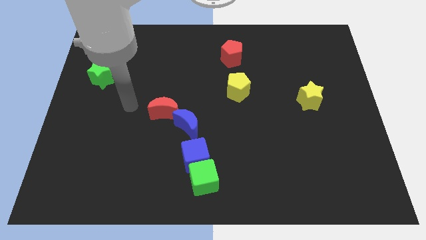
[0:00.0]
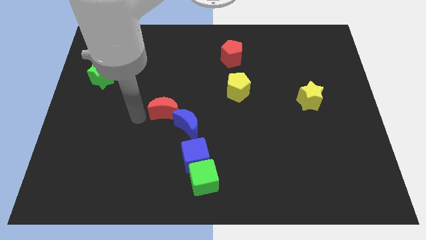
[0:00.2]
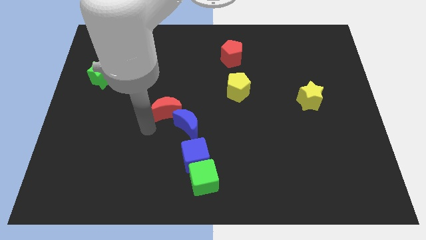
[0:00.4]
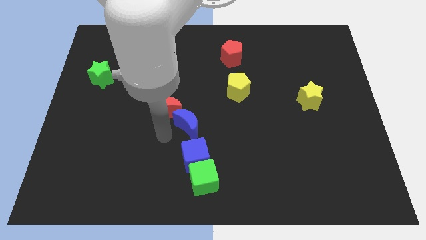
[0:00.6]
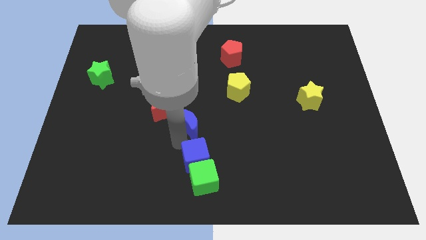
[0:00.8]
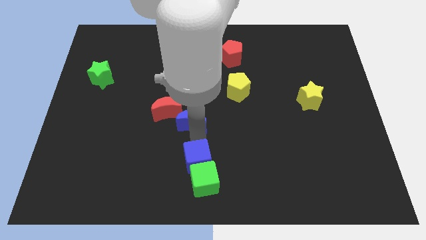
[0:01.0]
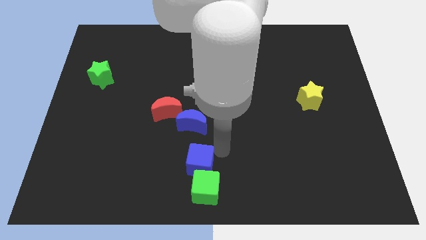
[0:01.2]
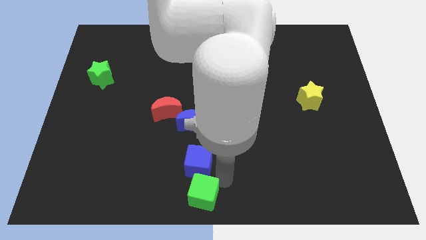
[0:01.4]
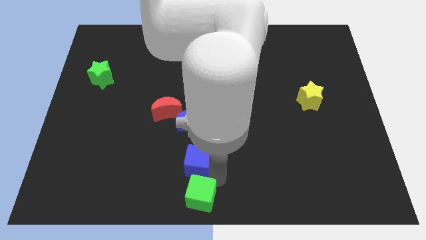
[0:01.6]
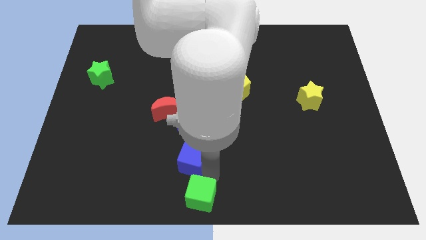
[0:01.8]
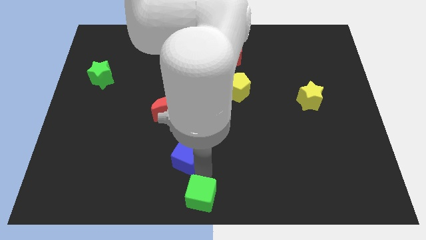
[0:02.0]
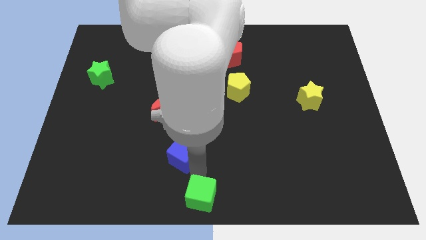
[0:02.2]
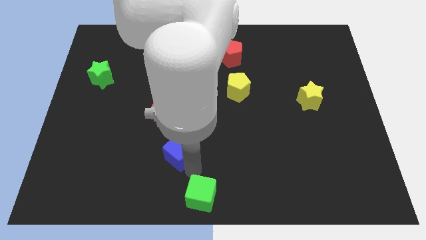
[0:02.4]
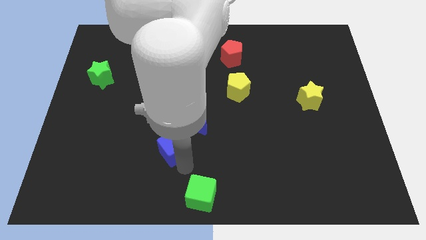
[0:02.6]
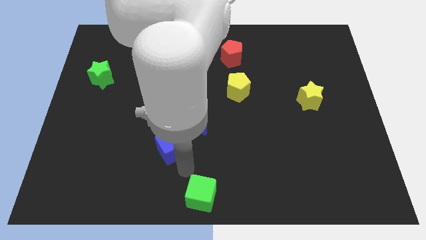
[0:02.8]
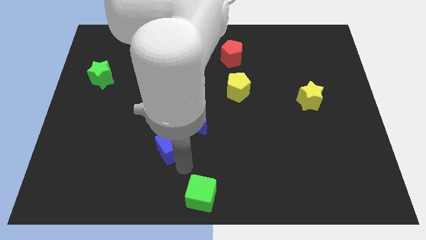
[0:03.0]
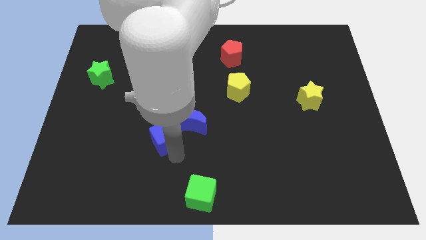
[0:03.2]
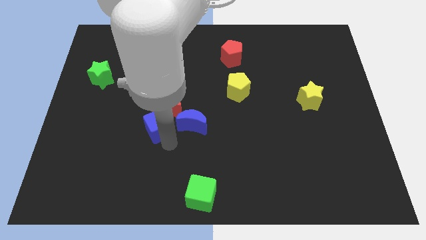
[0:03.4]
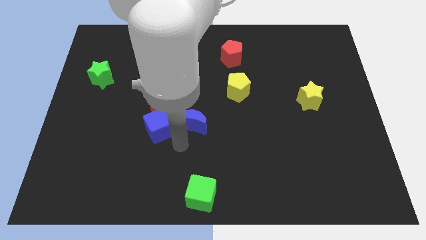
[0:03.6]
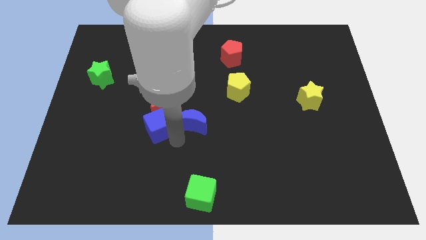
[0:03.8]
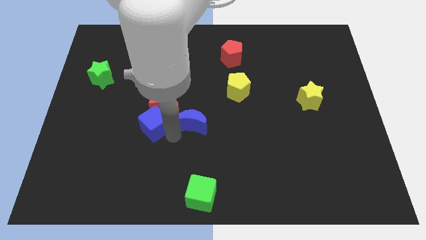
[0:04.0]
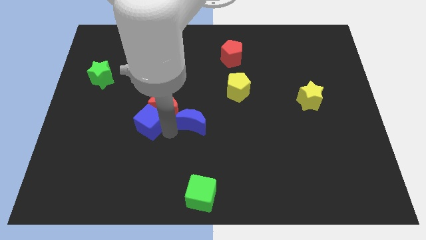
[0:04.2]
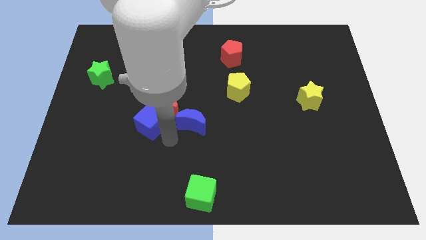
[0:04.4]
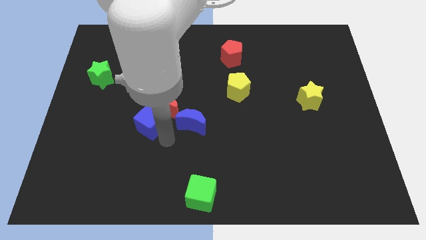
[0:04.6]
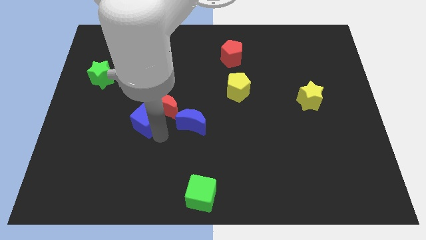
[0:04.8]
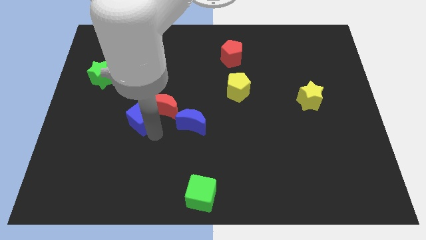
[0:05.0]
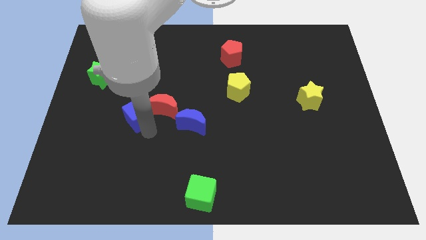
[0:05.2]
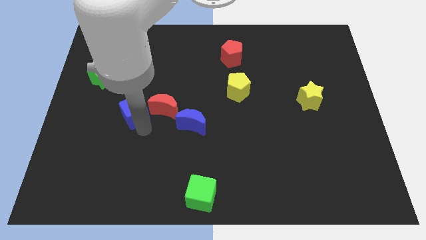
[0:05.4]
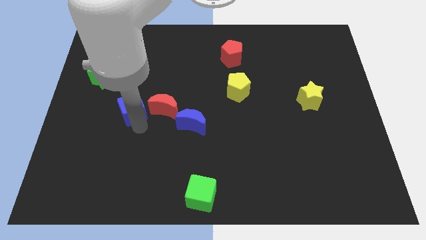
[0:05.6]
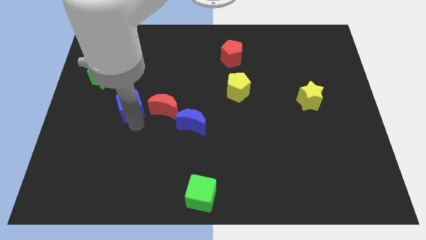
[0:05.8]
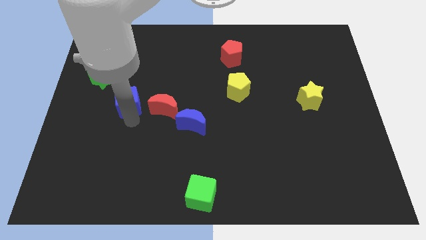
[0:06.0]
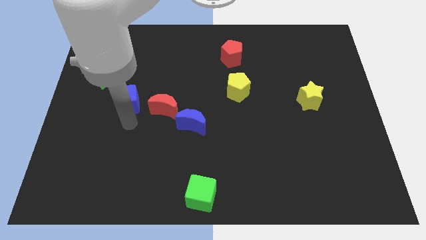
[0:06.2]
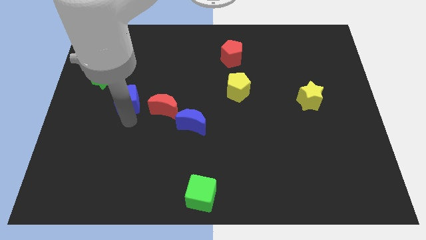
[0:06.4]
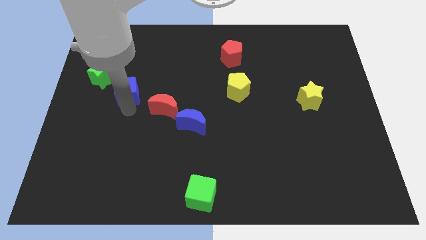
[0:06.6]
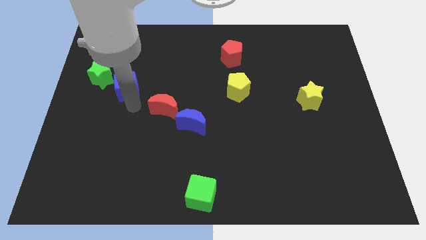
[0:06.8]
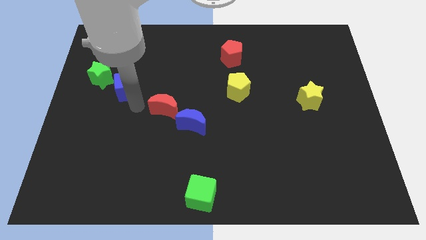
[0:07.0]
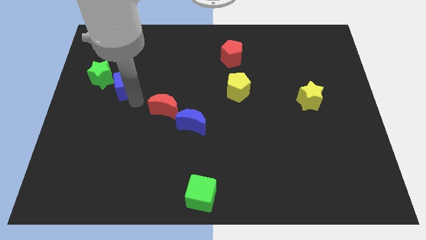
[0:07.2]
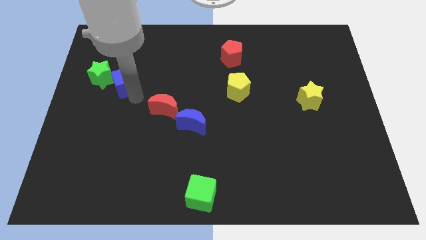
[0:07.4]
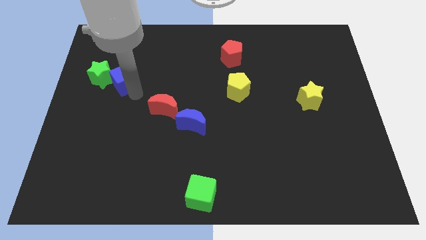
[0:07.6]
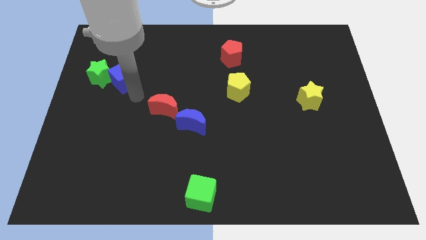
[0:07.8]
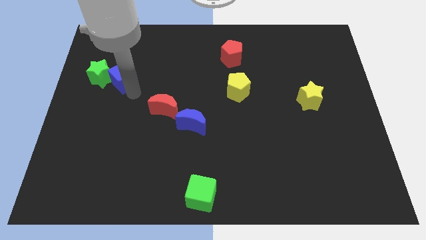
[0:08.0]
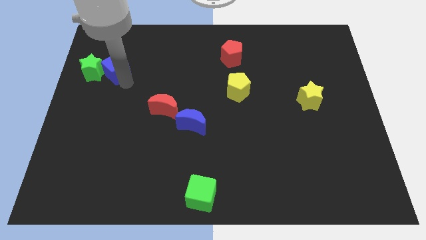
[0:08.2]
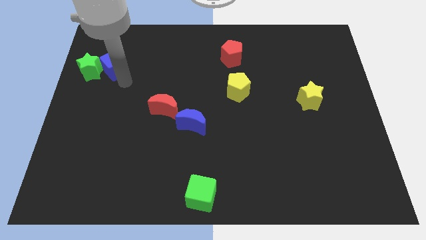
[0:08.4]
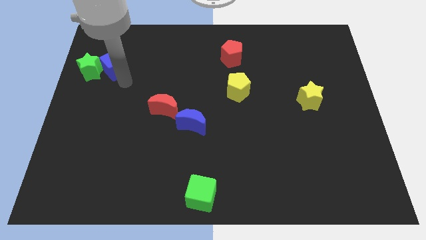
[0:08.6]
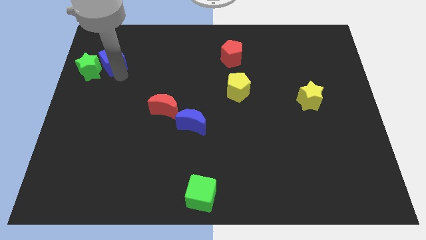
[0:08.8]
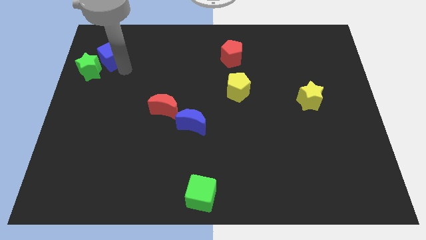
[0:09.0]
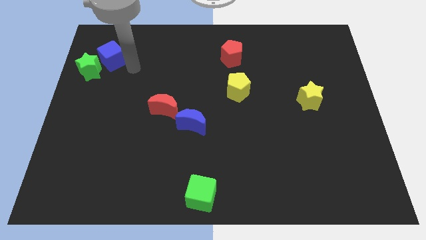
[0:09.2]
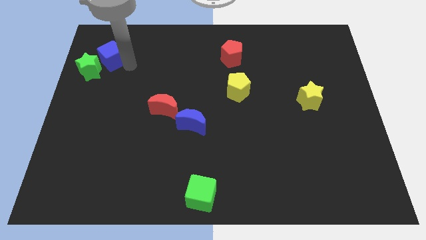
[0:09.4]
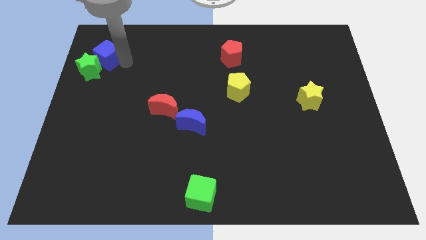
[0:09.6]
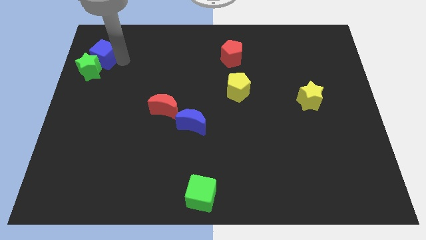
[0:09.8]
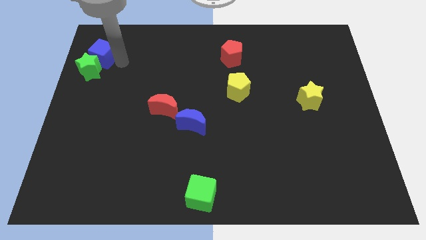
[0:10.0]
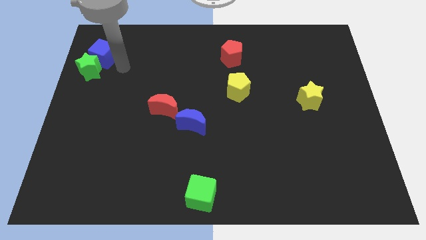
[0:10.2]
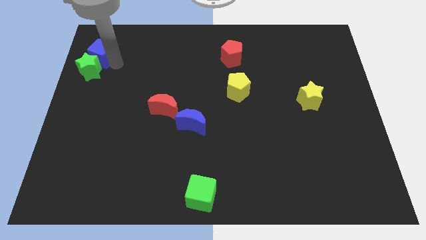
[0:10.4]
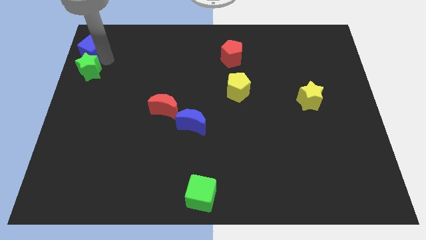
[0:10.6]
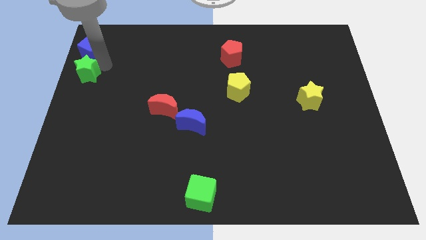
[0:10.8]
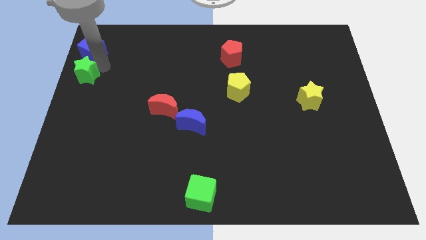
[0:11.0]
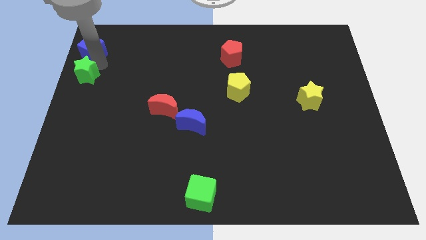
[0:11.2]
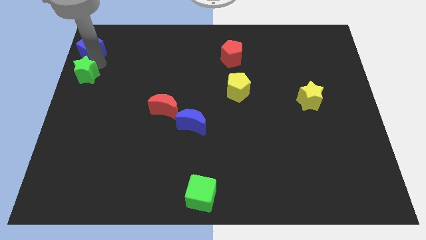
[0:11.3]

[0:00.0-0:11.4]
put the blue cube to the upper left corner

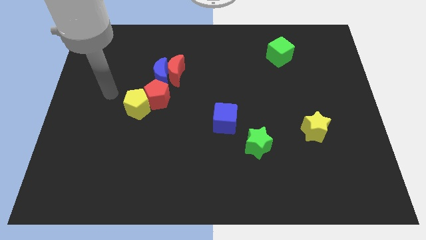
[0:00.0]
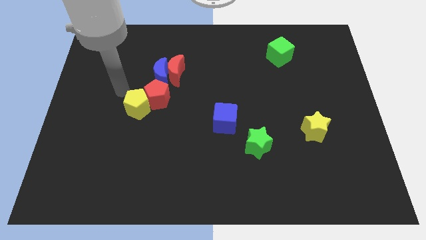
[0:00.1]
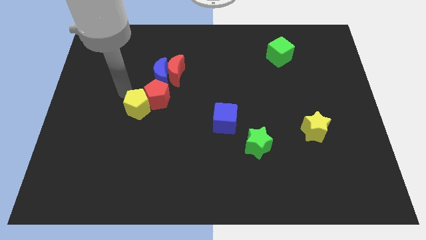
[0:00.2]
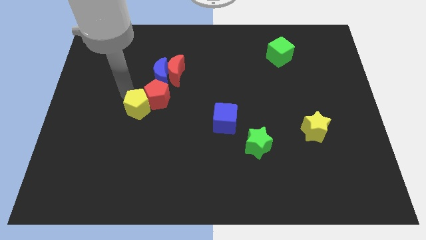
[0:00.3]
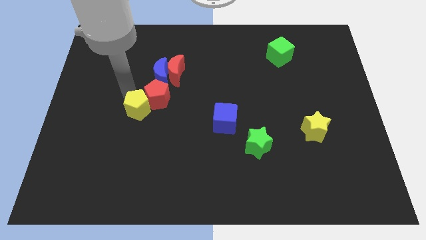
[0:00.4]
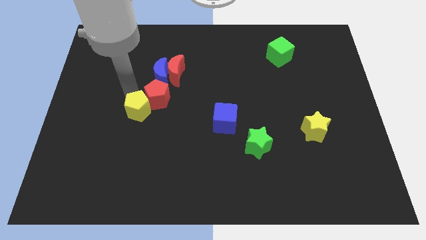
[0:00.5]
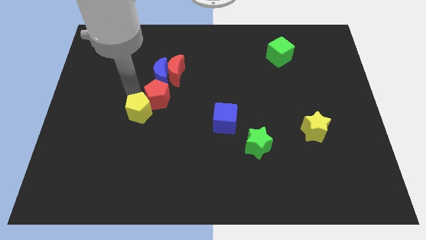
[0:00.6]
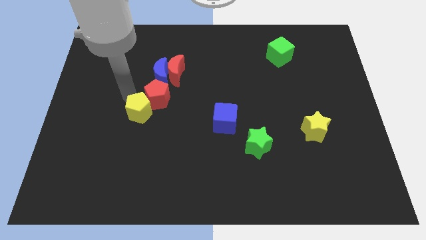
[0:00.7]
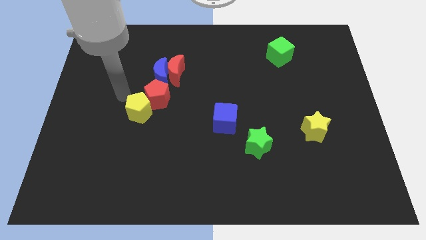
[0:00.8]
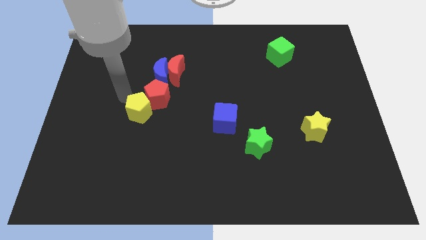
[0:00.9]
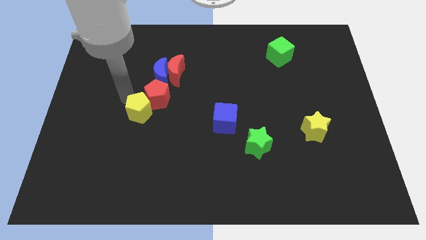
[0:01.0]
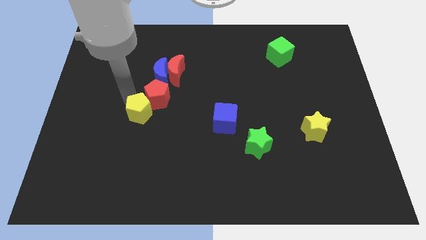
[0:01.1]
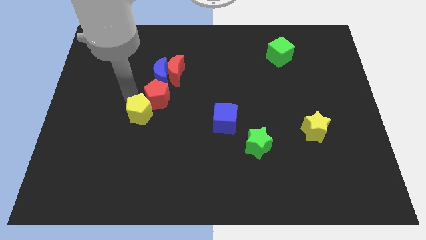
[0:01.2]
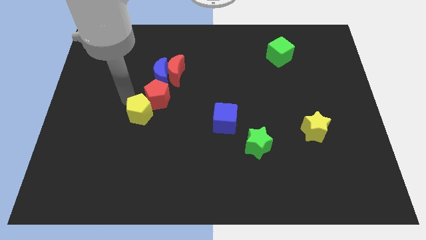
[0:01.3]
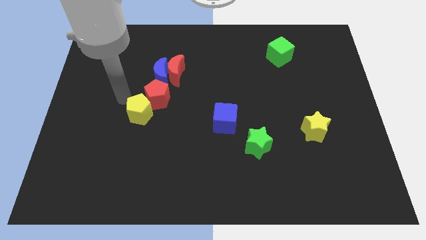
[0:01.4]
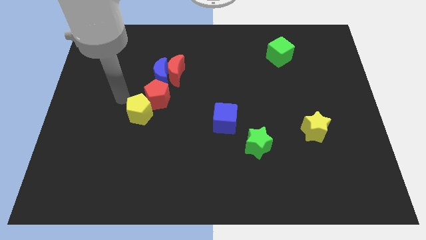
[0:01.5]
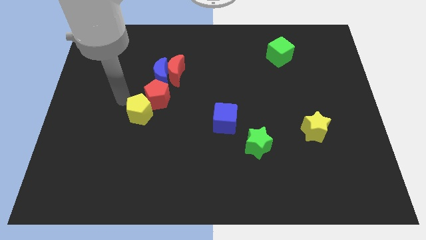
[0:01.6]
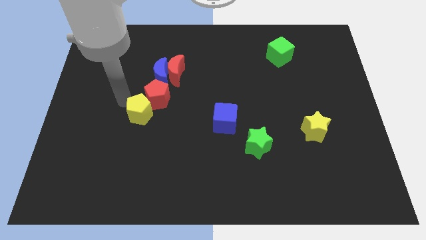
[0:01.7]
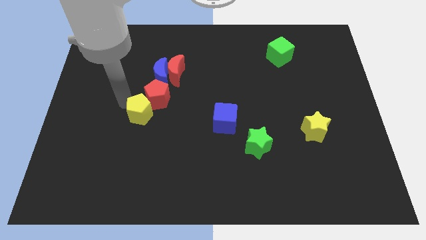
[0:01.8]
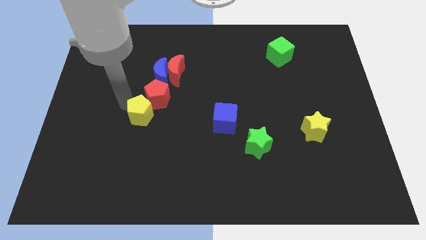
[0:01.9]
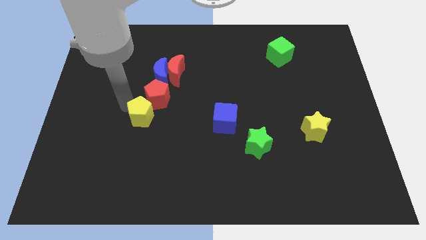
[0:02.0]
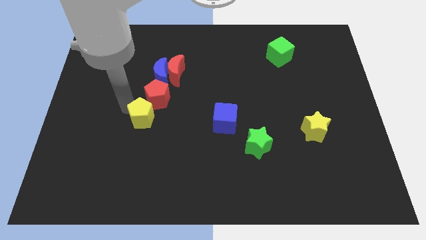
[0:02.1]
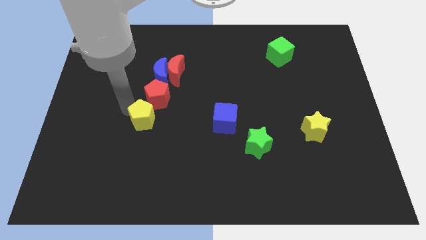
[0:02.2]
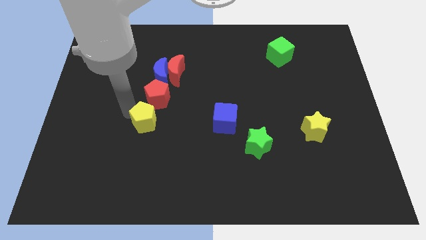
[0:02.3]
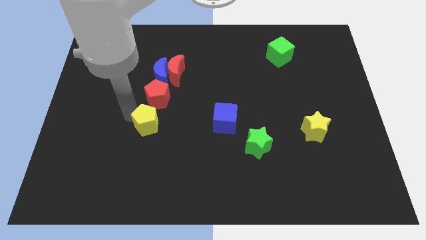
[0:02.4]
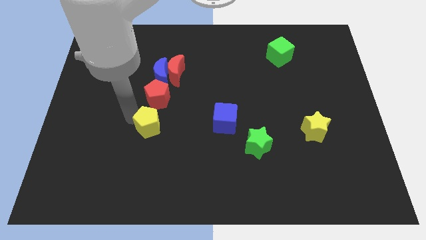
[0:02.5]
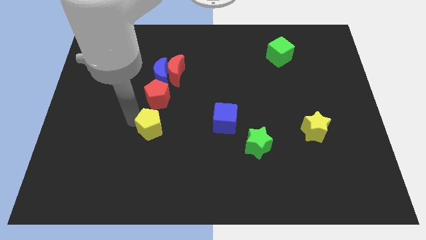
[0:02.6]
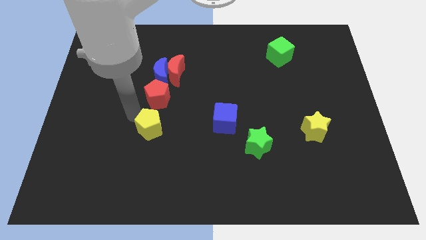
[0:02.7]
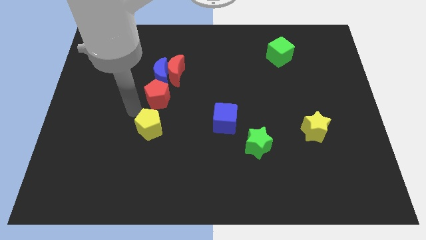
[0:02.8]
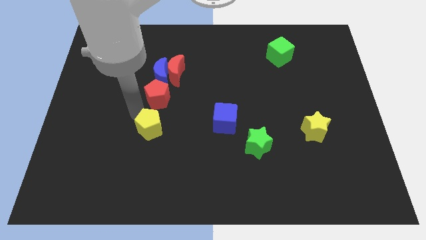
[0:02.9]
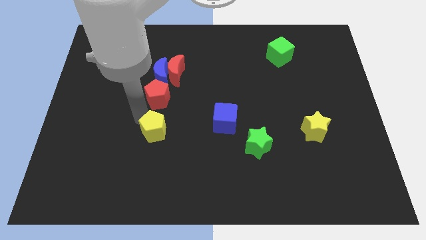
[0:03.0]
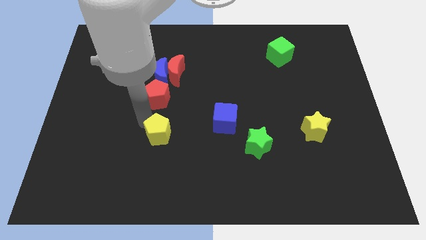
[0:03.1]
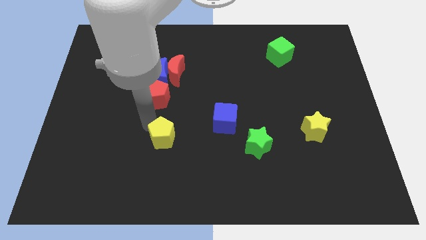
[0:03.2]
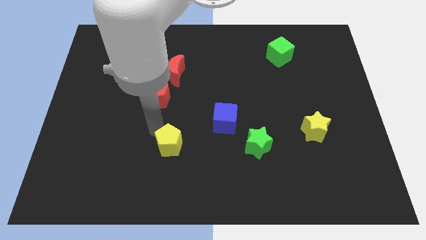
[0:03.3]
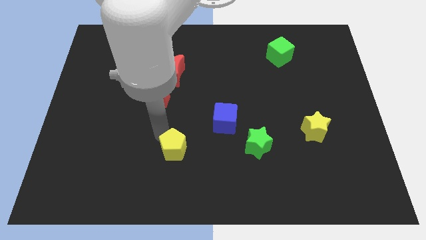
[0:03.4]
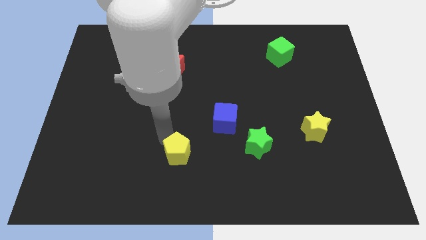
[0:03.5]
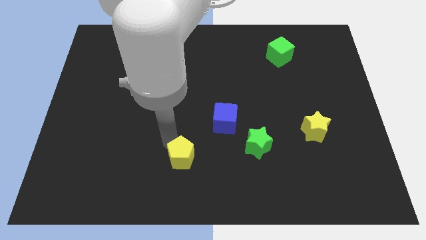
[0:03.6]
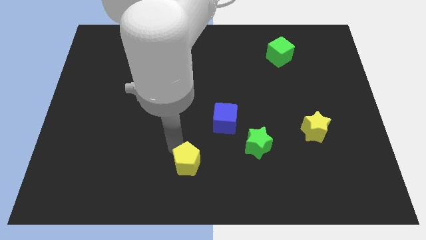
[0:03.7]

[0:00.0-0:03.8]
slide the yellow pentagon to the bottom side
